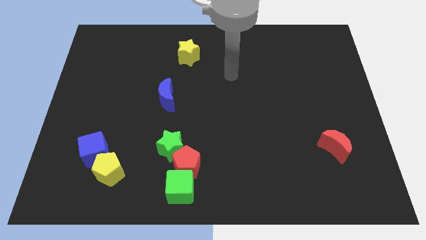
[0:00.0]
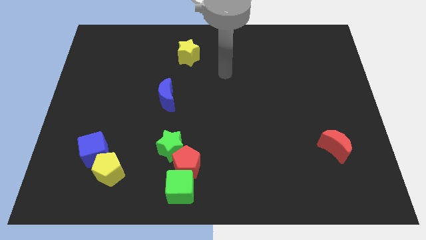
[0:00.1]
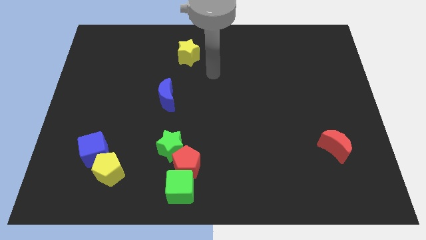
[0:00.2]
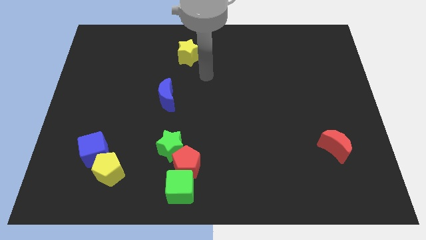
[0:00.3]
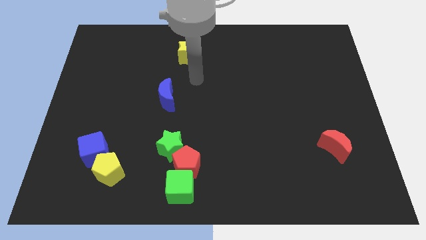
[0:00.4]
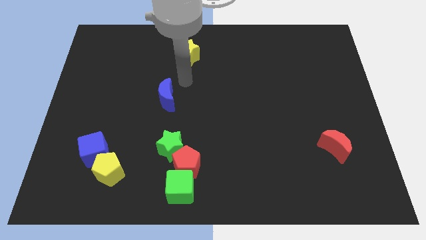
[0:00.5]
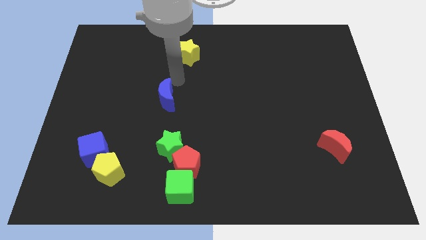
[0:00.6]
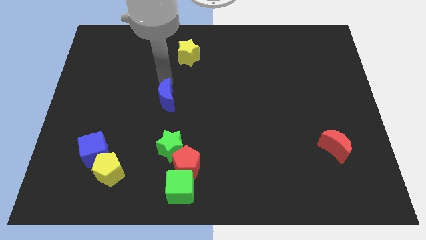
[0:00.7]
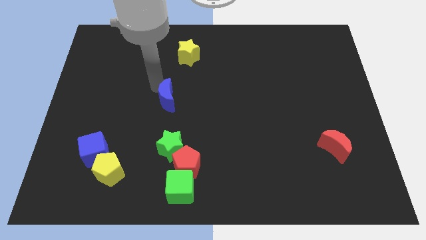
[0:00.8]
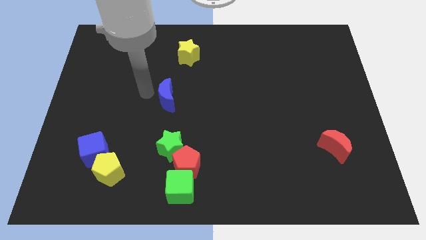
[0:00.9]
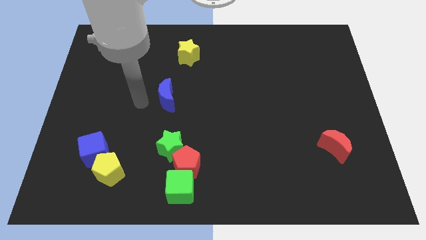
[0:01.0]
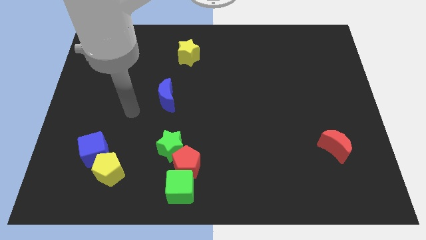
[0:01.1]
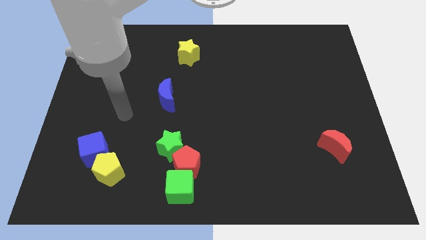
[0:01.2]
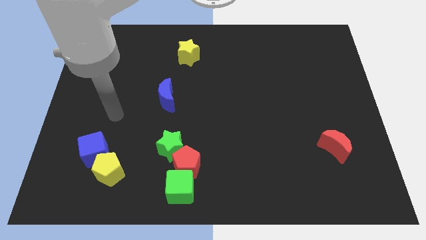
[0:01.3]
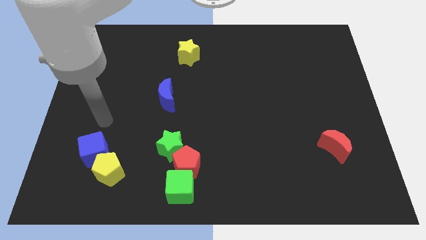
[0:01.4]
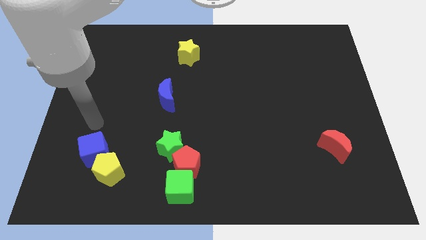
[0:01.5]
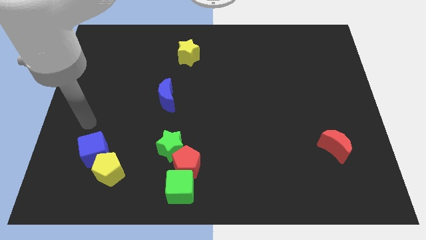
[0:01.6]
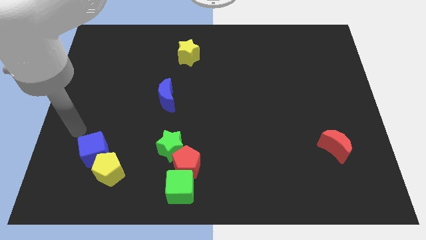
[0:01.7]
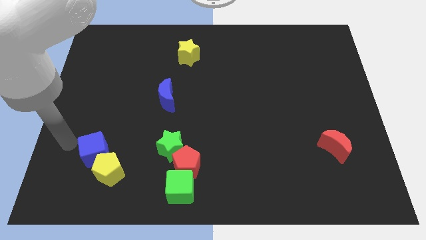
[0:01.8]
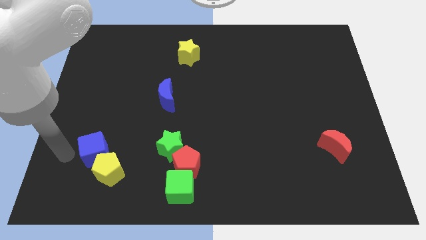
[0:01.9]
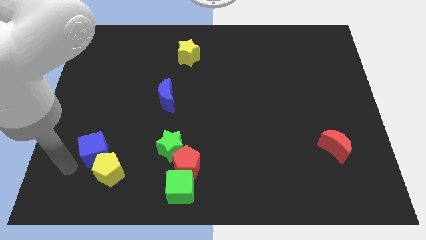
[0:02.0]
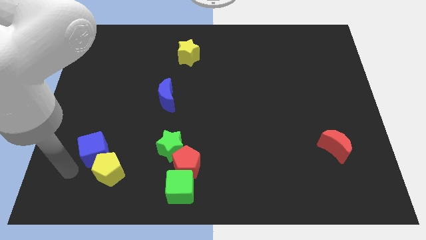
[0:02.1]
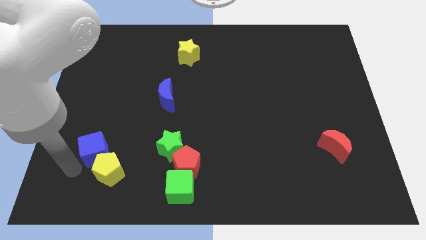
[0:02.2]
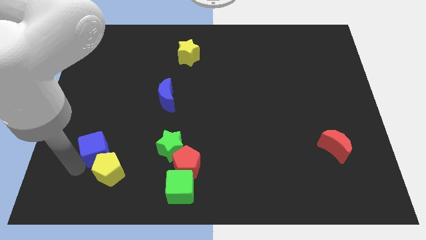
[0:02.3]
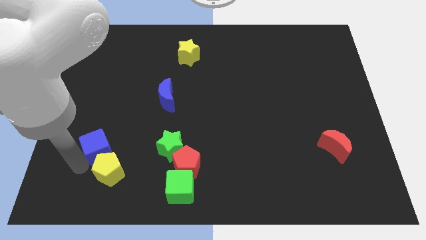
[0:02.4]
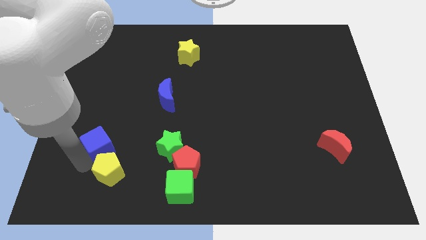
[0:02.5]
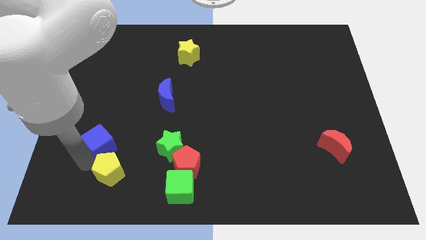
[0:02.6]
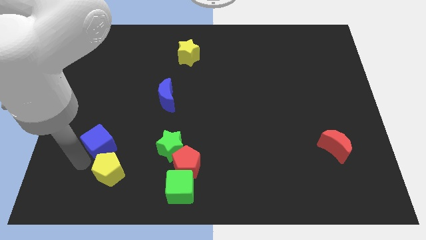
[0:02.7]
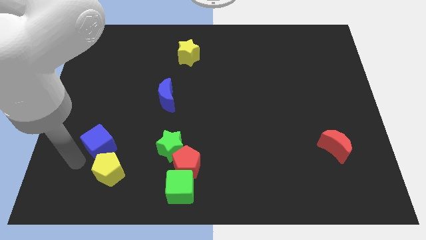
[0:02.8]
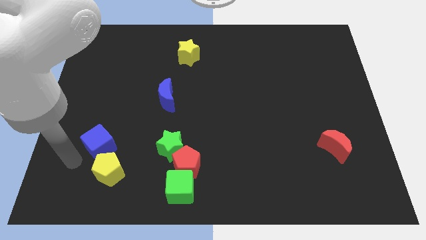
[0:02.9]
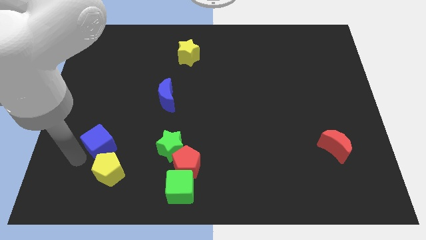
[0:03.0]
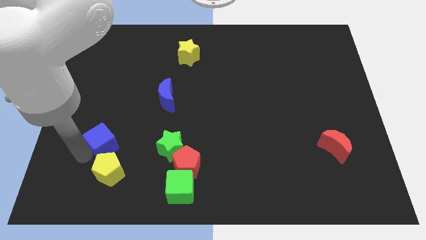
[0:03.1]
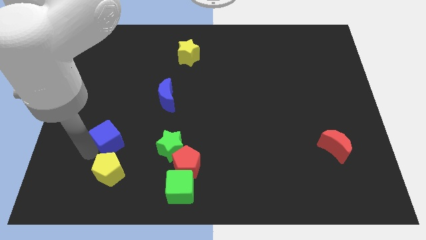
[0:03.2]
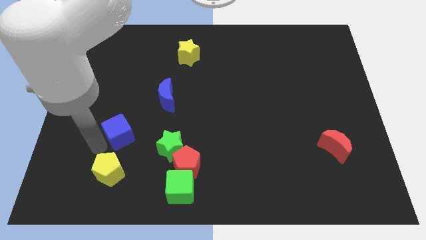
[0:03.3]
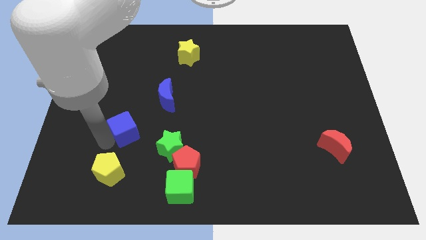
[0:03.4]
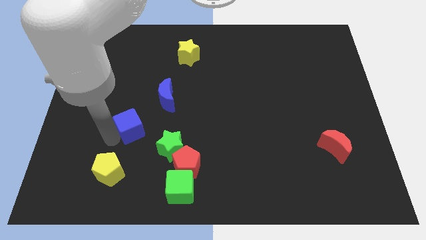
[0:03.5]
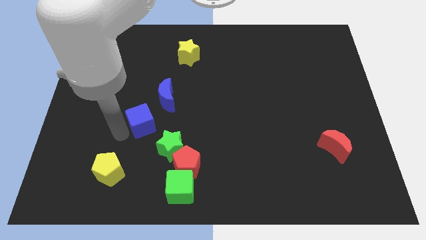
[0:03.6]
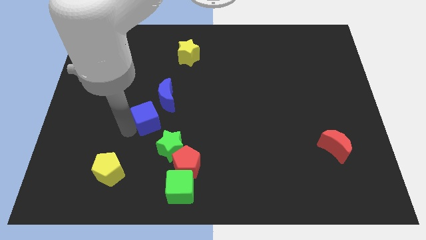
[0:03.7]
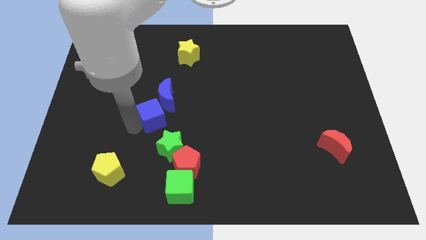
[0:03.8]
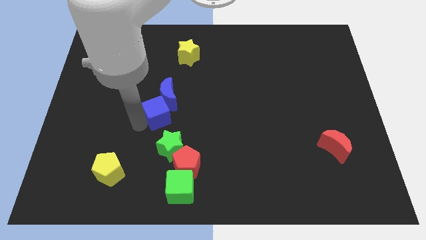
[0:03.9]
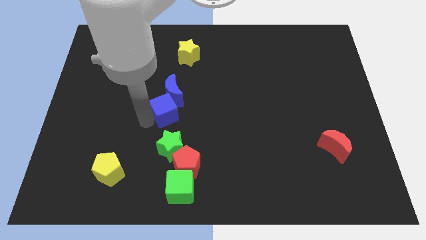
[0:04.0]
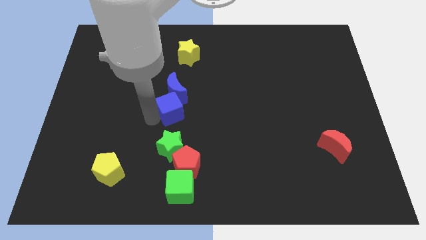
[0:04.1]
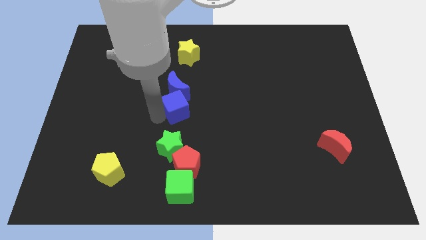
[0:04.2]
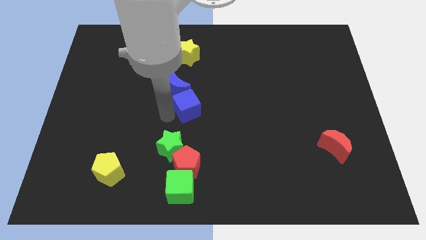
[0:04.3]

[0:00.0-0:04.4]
slide the blue cube up and right diagonally

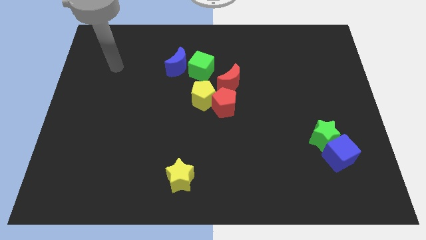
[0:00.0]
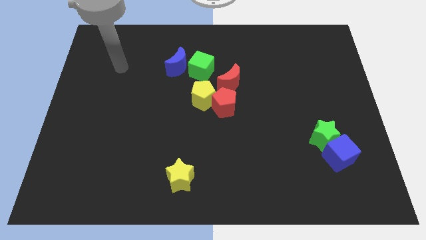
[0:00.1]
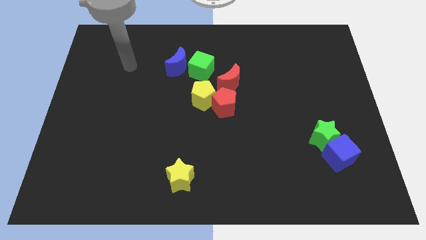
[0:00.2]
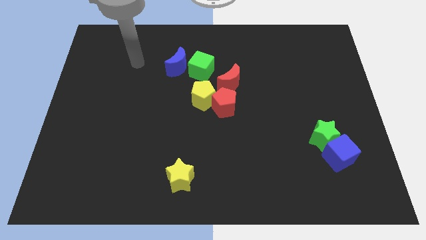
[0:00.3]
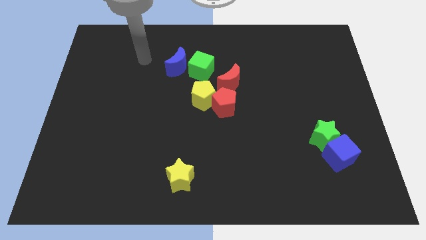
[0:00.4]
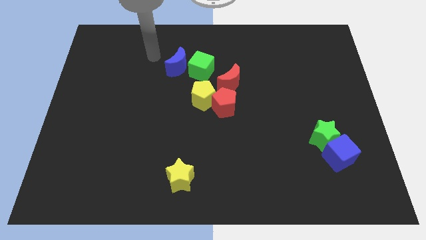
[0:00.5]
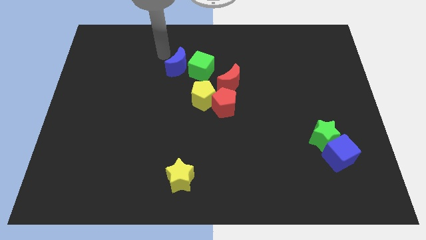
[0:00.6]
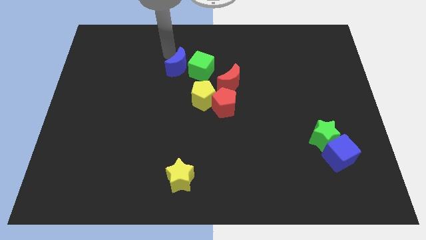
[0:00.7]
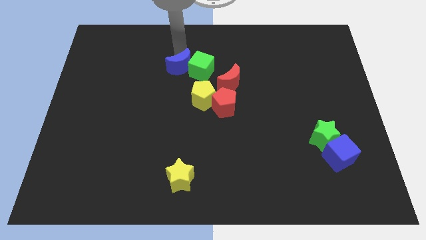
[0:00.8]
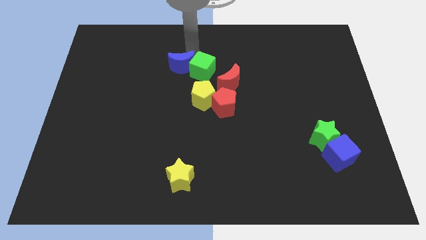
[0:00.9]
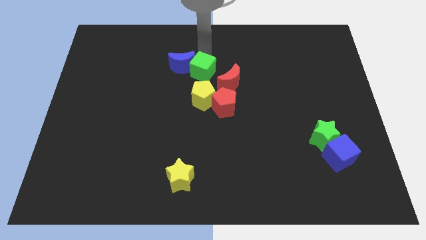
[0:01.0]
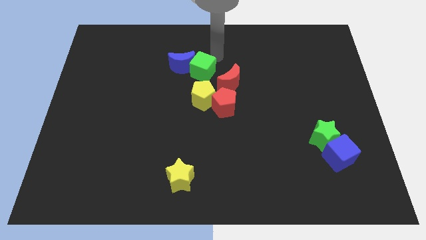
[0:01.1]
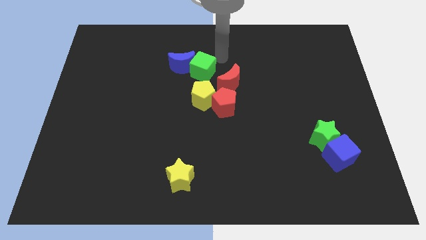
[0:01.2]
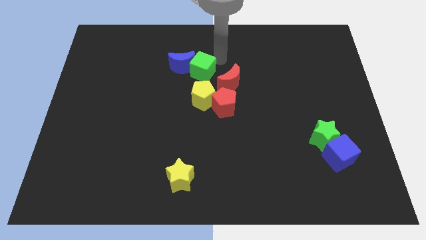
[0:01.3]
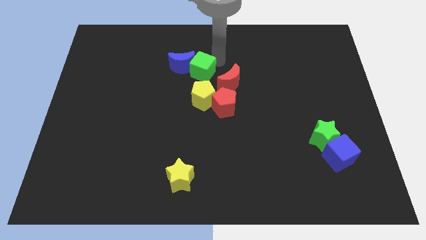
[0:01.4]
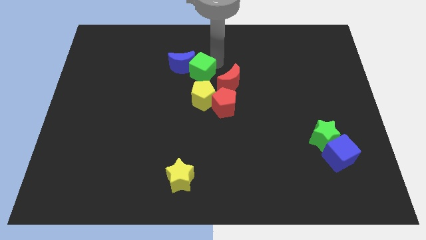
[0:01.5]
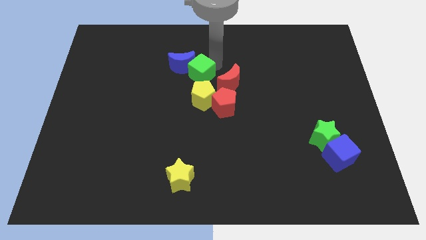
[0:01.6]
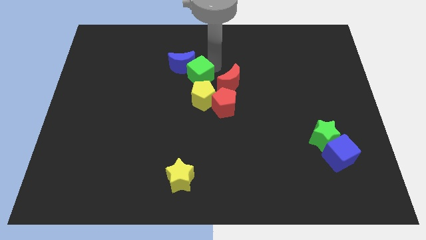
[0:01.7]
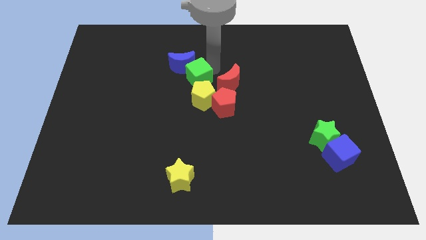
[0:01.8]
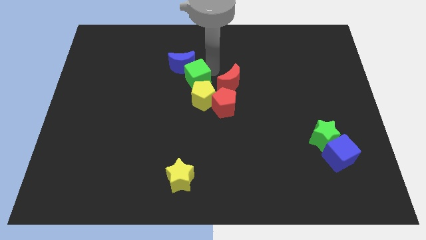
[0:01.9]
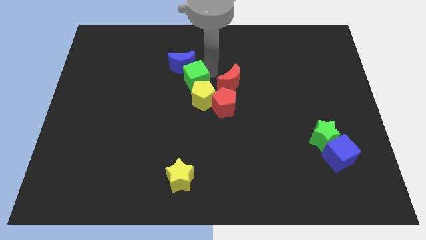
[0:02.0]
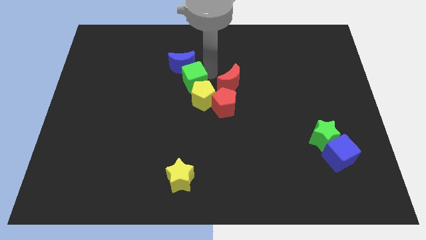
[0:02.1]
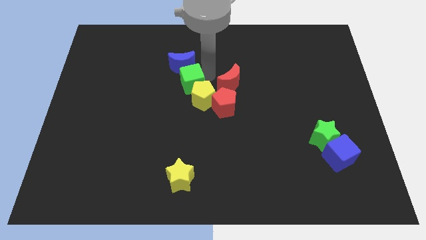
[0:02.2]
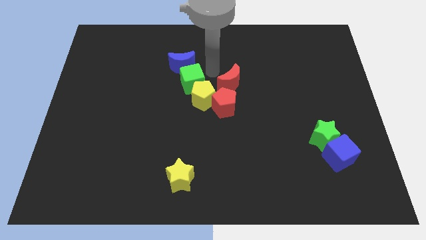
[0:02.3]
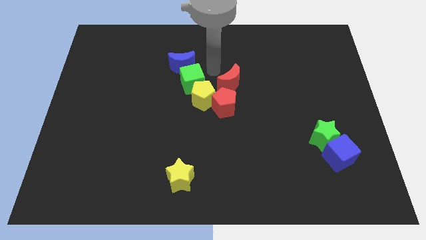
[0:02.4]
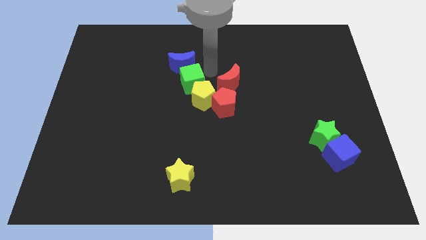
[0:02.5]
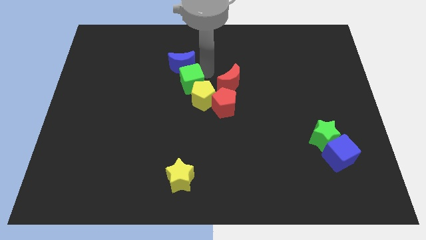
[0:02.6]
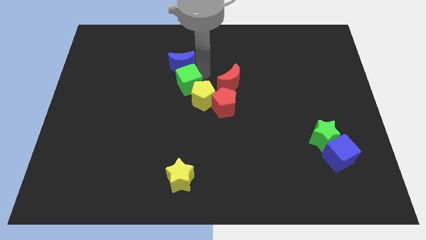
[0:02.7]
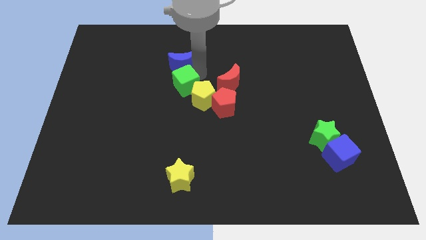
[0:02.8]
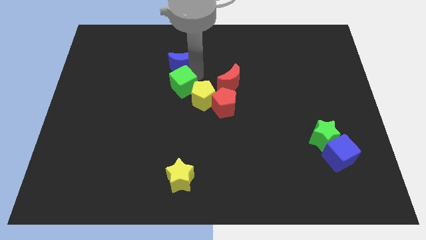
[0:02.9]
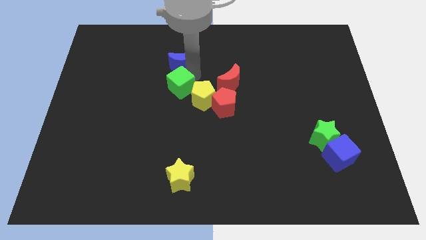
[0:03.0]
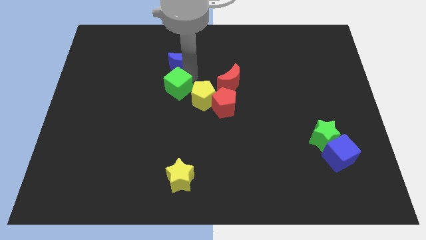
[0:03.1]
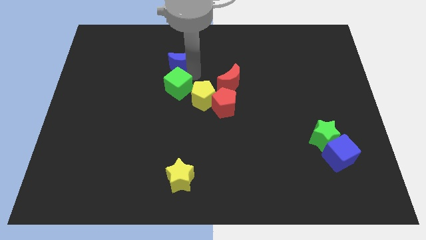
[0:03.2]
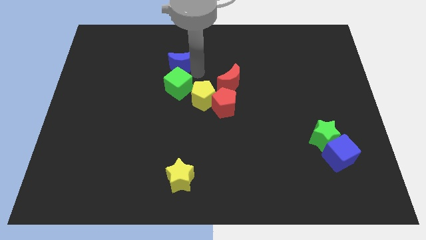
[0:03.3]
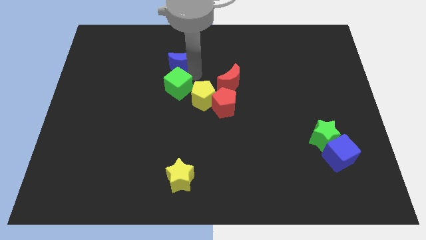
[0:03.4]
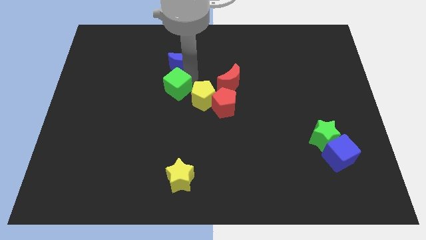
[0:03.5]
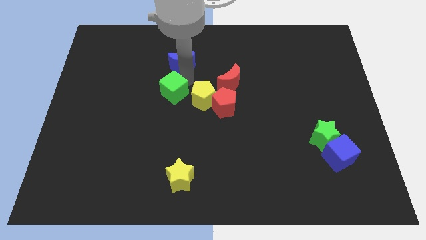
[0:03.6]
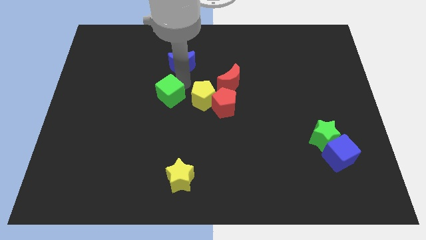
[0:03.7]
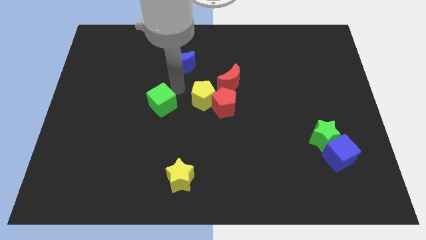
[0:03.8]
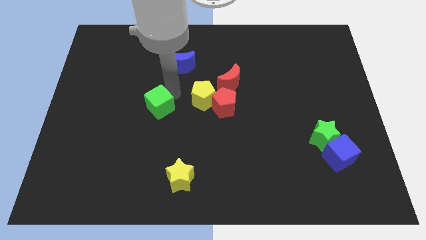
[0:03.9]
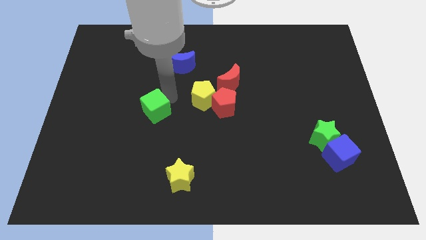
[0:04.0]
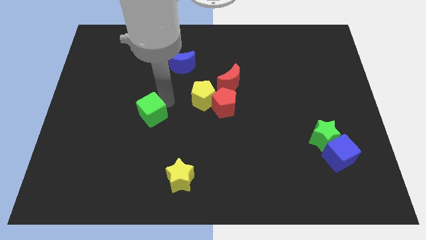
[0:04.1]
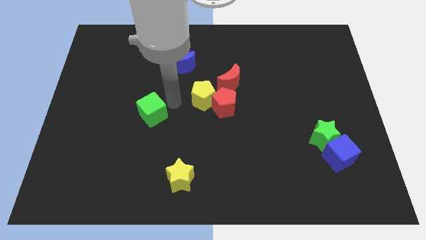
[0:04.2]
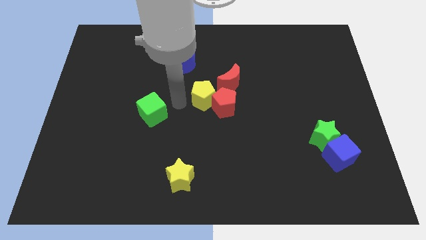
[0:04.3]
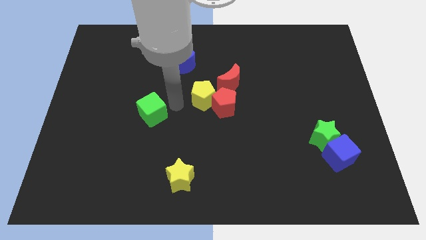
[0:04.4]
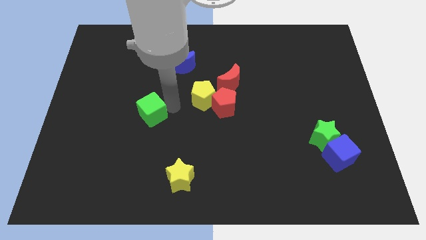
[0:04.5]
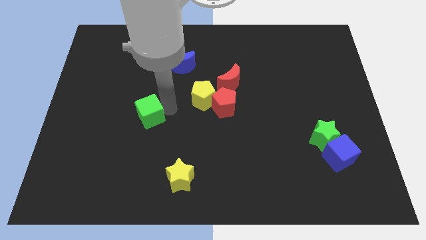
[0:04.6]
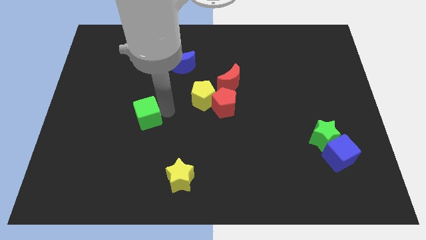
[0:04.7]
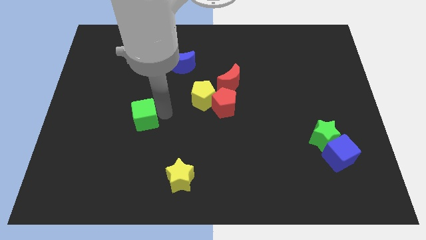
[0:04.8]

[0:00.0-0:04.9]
slide the green cube diagonally down and left
